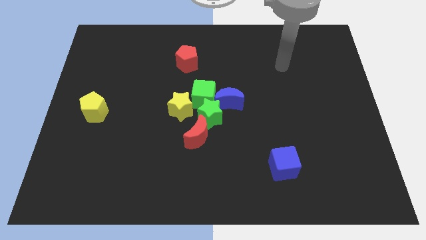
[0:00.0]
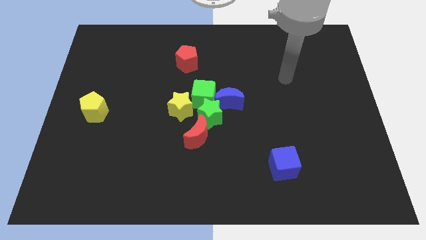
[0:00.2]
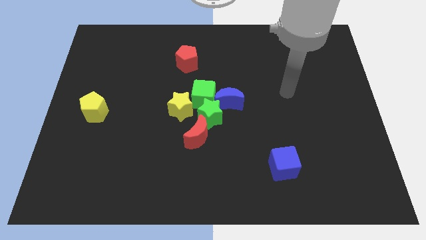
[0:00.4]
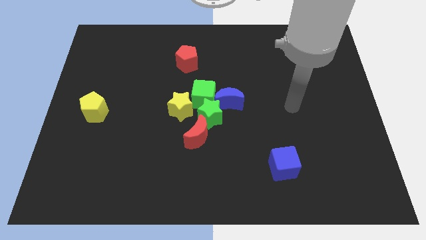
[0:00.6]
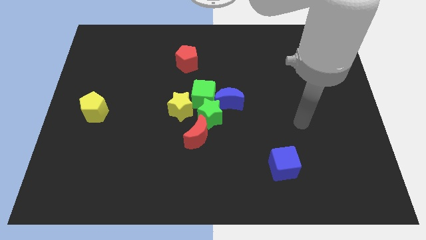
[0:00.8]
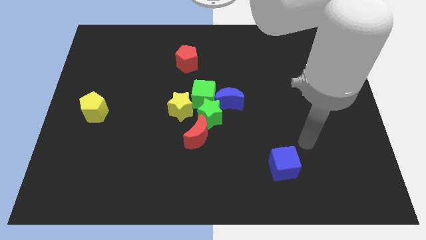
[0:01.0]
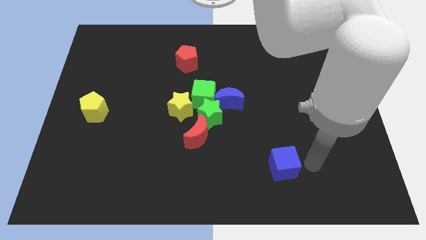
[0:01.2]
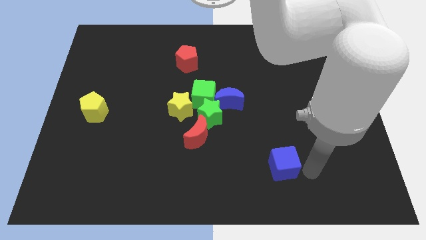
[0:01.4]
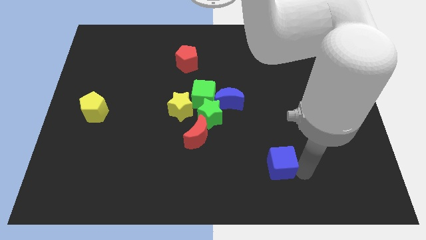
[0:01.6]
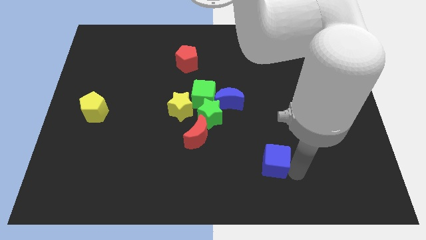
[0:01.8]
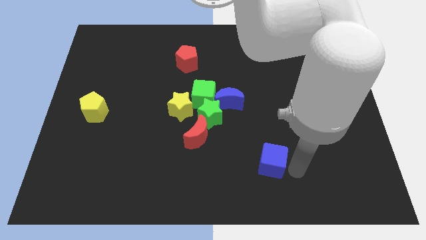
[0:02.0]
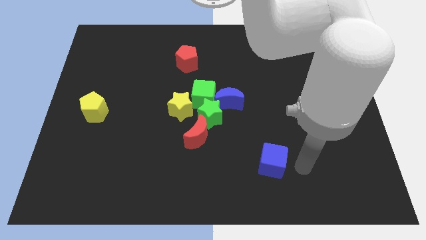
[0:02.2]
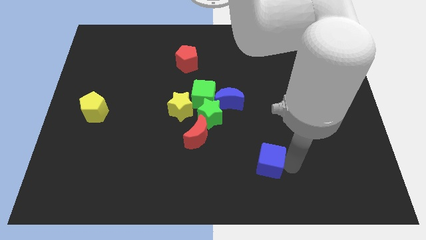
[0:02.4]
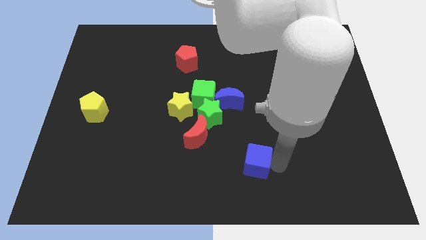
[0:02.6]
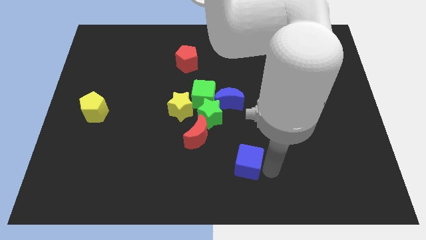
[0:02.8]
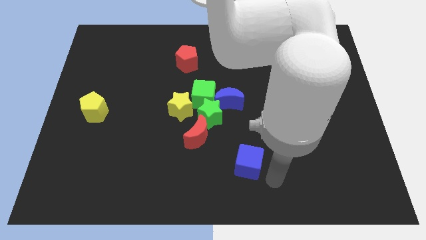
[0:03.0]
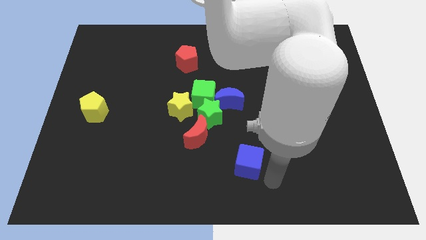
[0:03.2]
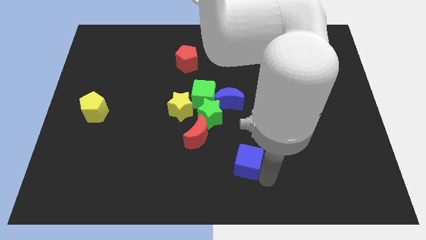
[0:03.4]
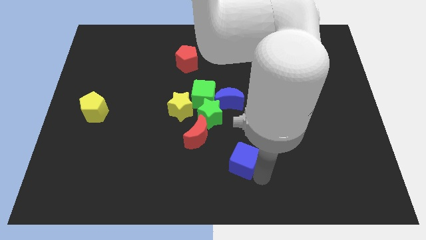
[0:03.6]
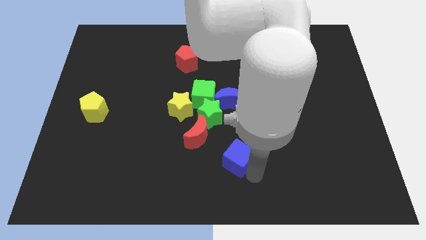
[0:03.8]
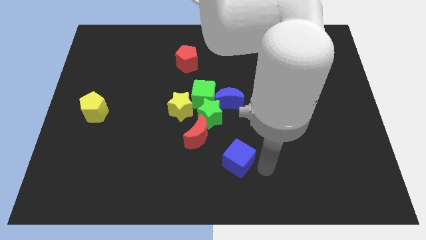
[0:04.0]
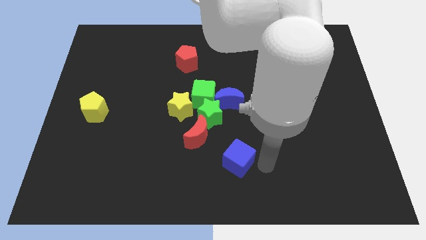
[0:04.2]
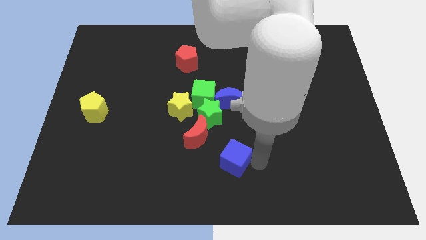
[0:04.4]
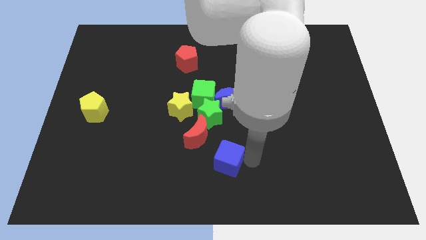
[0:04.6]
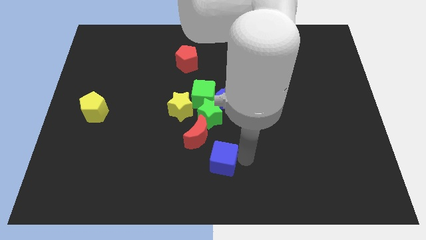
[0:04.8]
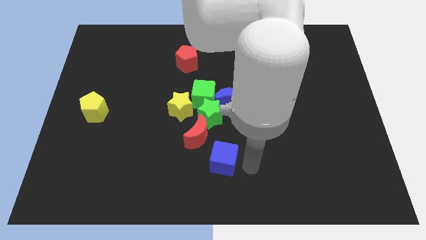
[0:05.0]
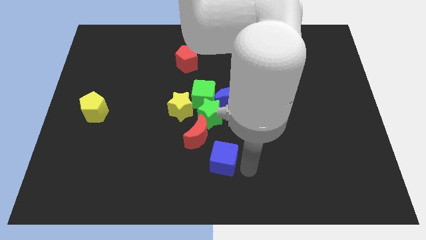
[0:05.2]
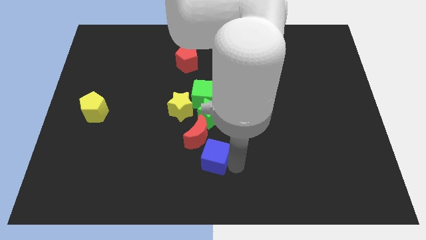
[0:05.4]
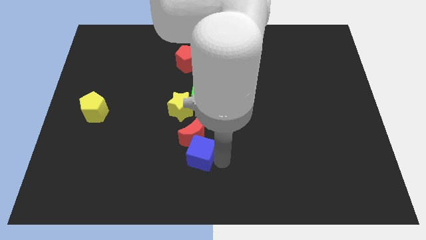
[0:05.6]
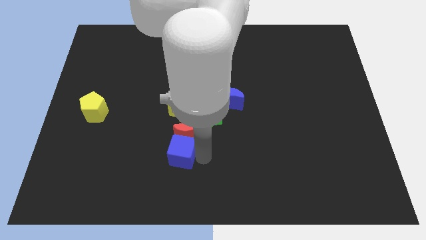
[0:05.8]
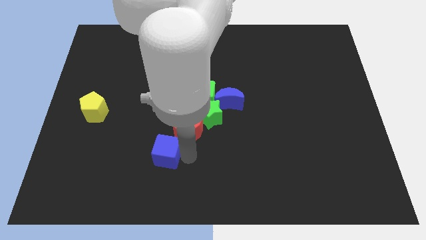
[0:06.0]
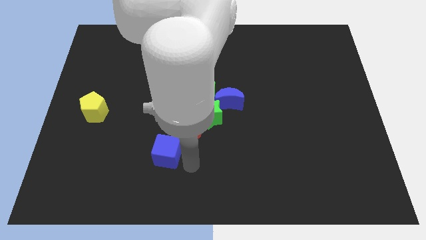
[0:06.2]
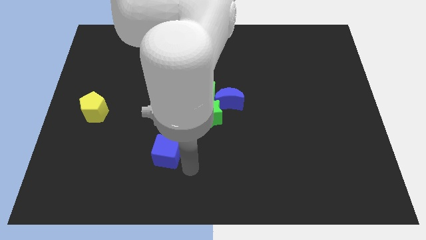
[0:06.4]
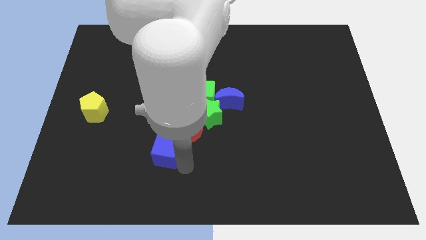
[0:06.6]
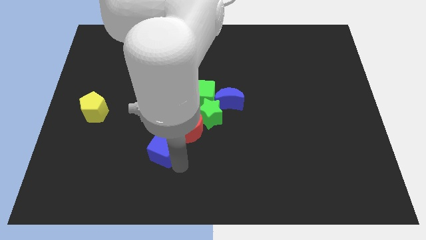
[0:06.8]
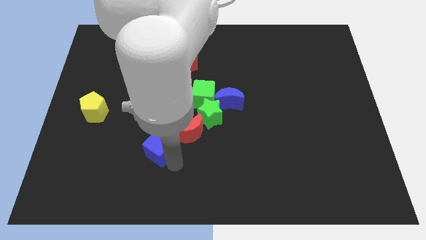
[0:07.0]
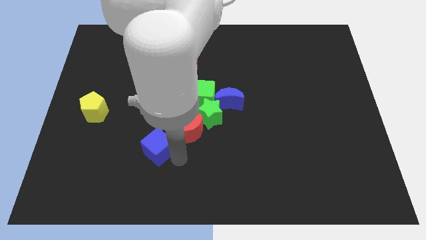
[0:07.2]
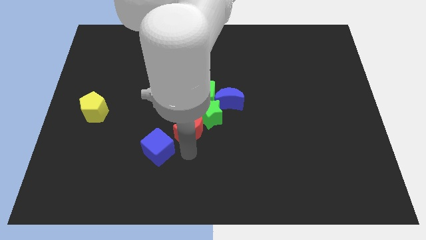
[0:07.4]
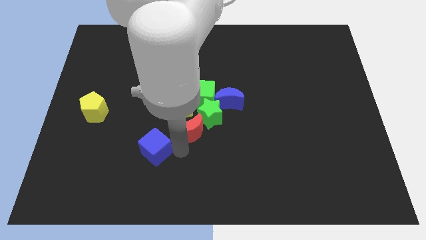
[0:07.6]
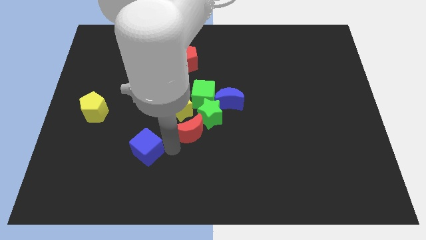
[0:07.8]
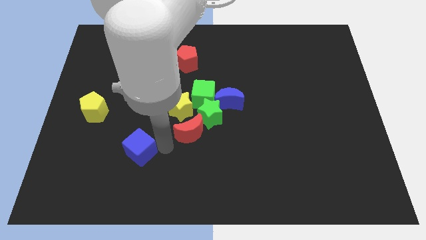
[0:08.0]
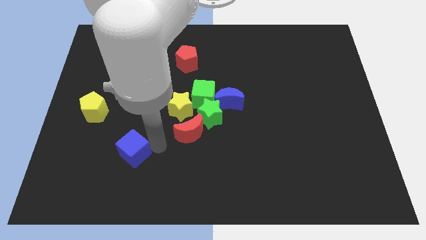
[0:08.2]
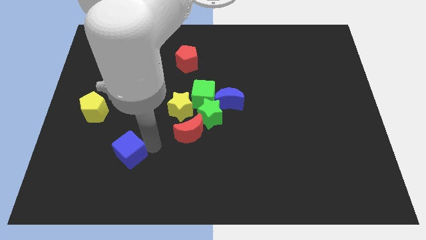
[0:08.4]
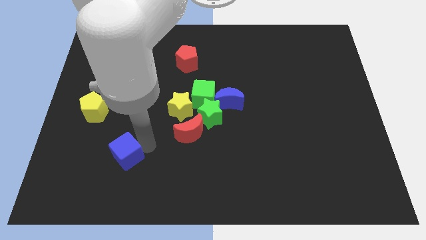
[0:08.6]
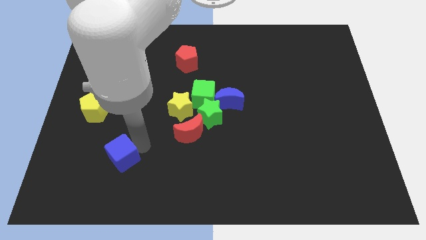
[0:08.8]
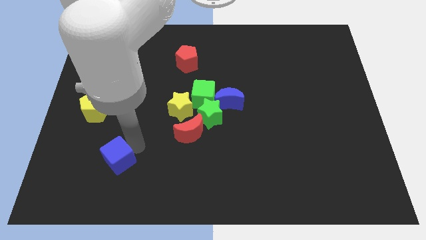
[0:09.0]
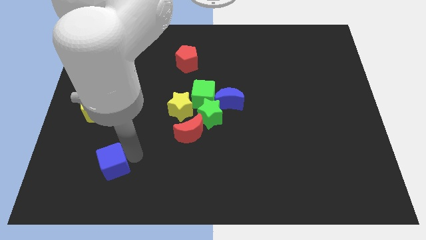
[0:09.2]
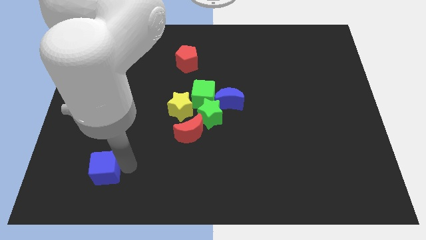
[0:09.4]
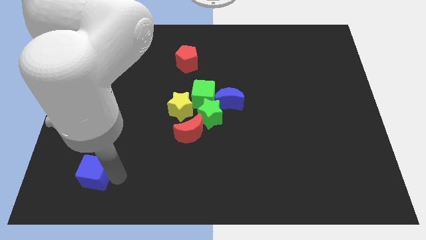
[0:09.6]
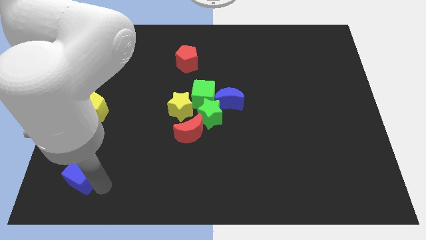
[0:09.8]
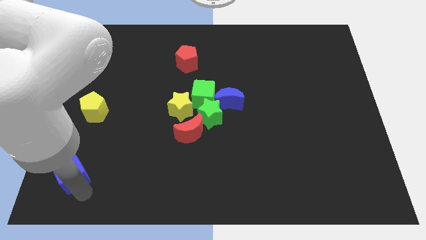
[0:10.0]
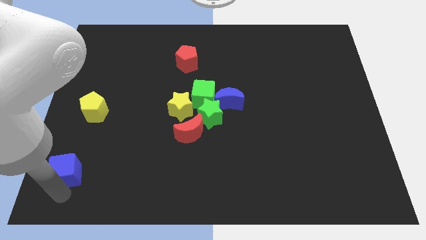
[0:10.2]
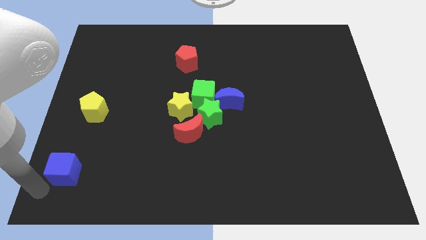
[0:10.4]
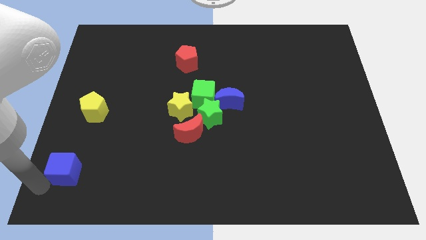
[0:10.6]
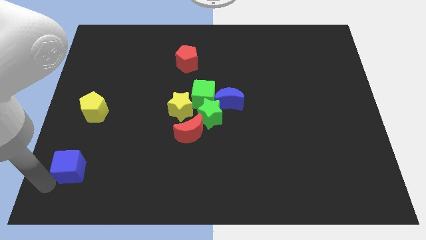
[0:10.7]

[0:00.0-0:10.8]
put the blue cube to the bottom of the yellow pentagon
